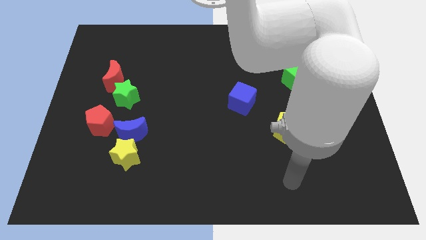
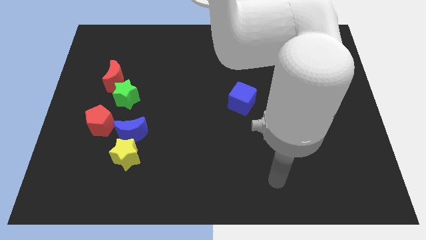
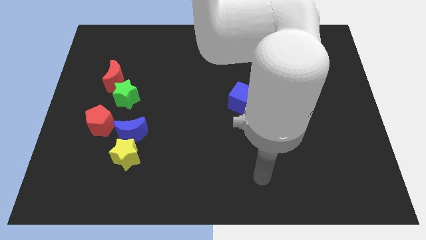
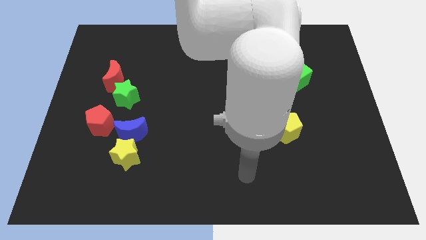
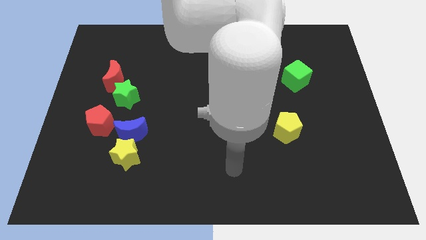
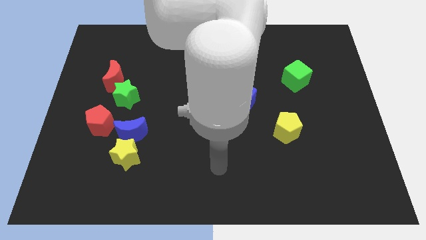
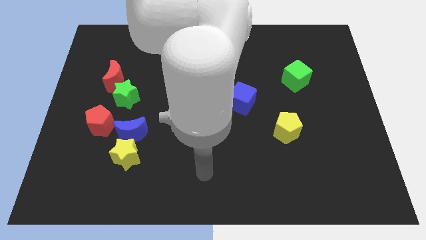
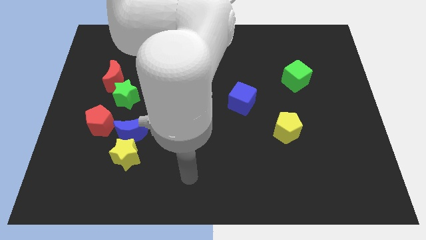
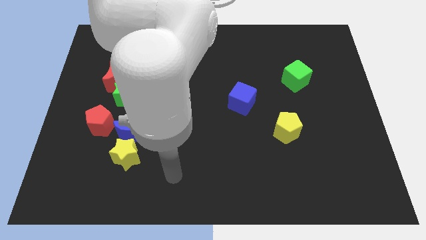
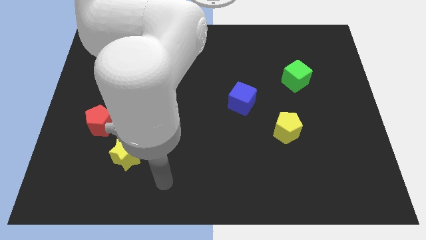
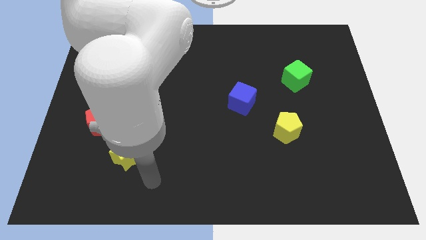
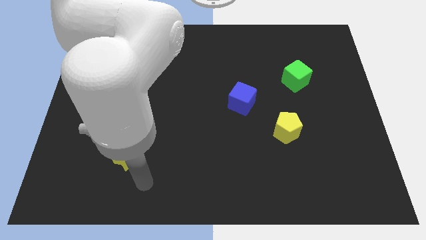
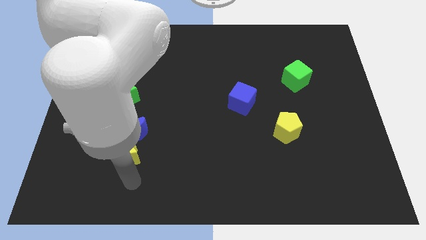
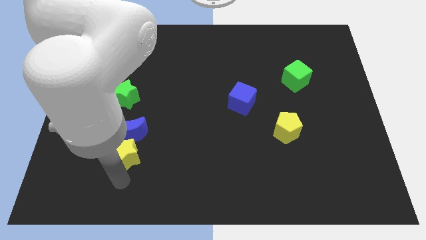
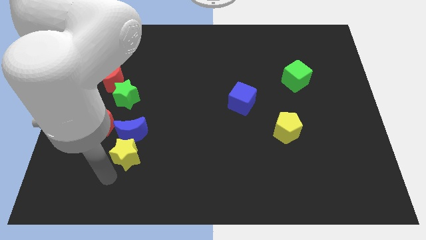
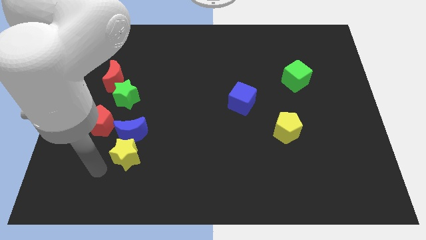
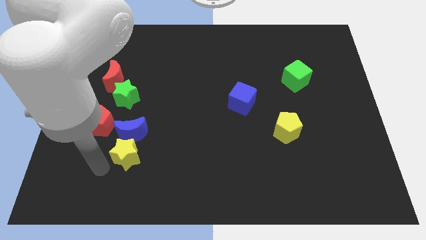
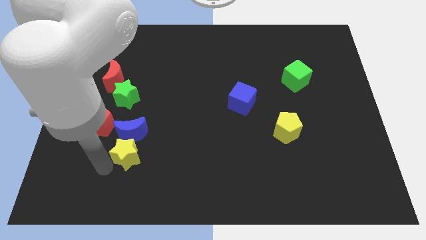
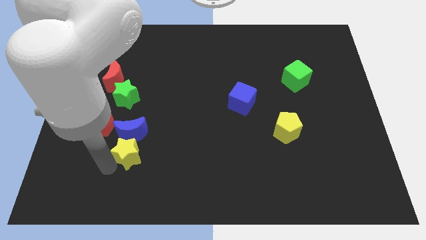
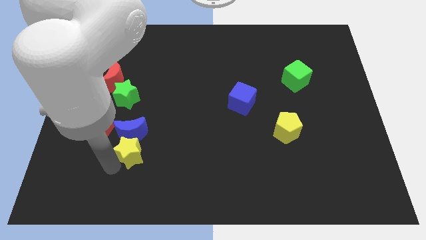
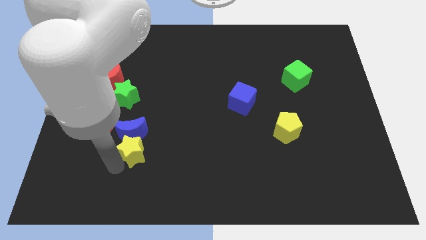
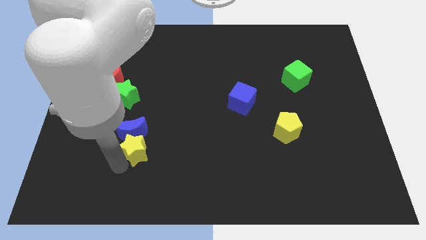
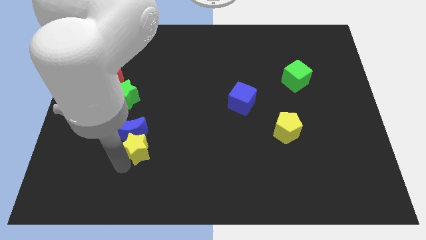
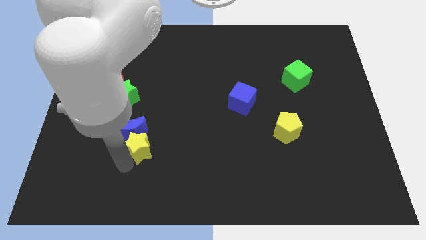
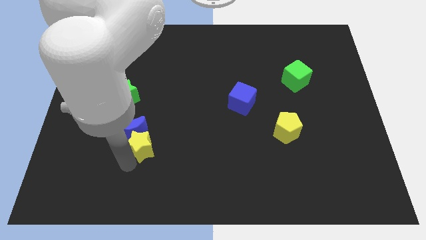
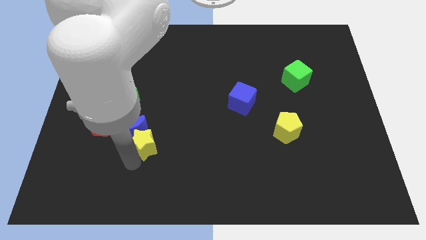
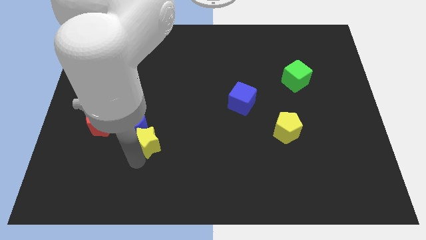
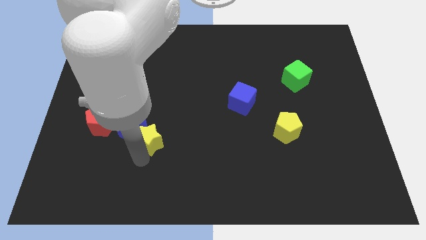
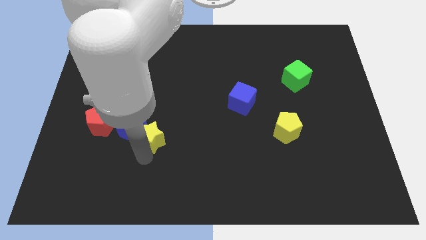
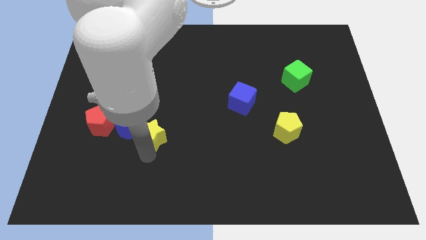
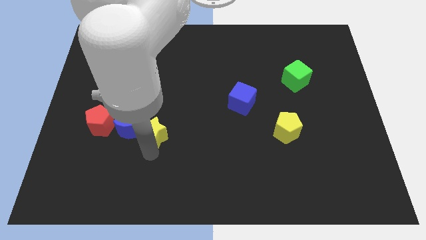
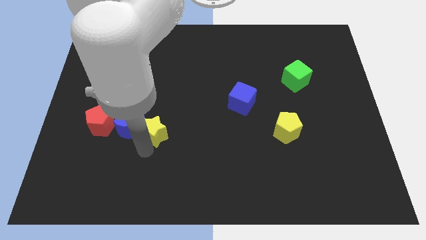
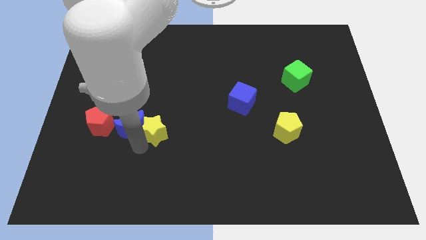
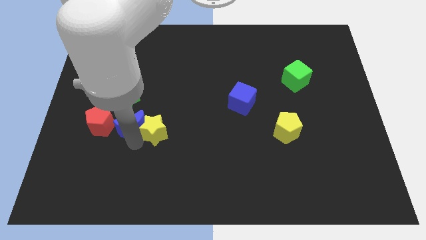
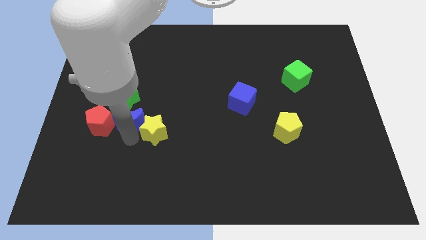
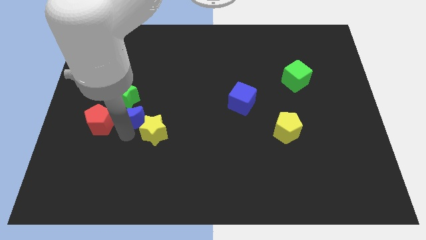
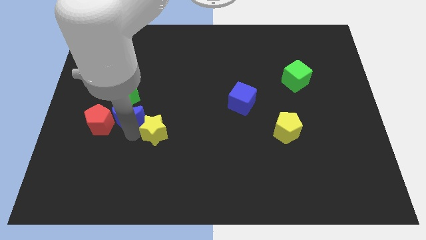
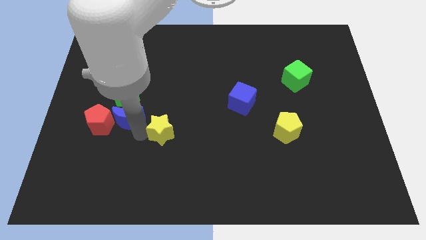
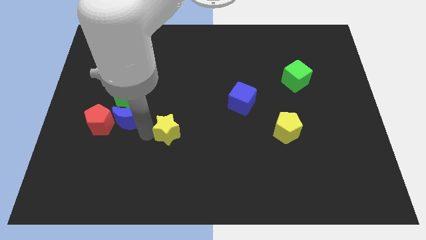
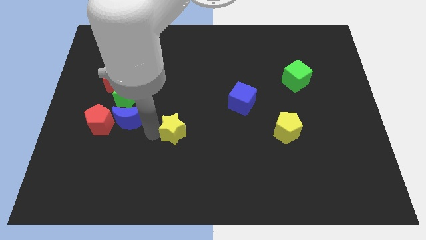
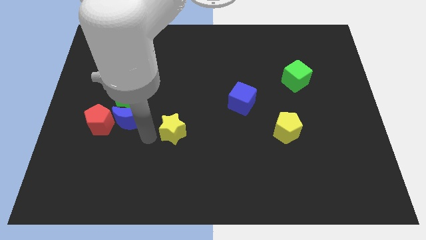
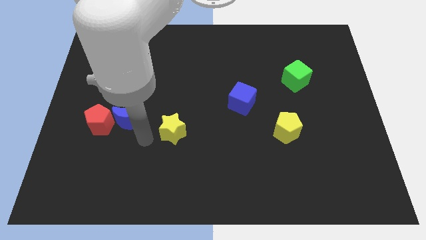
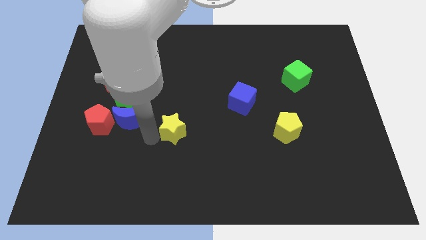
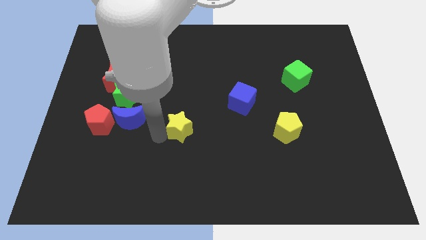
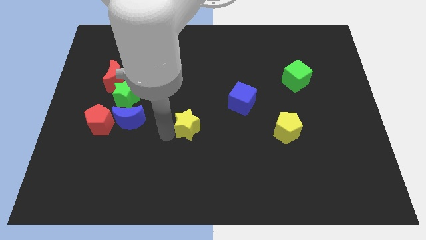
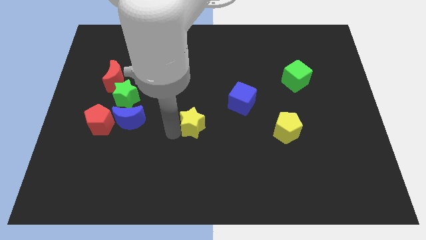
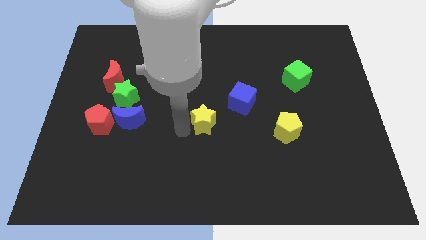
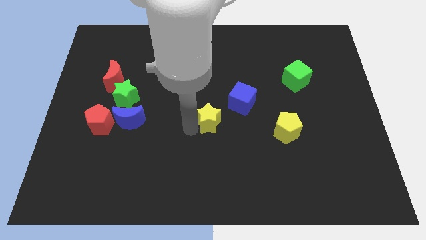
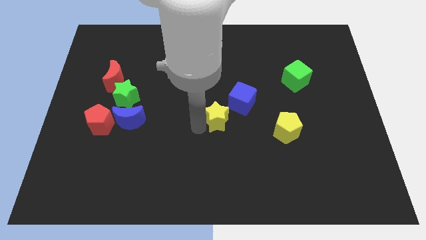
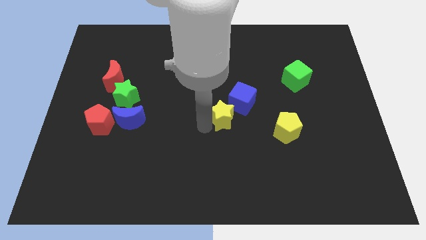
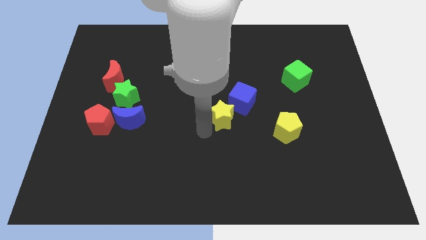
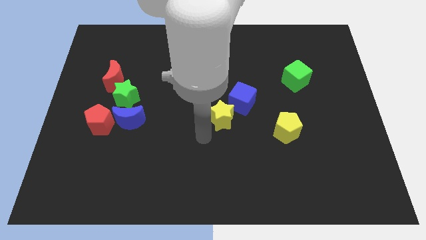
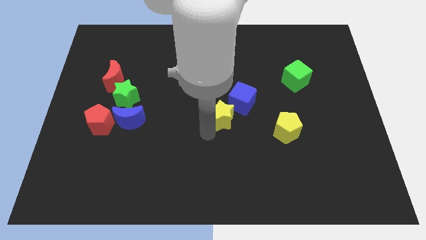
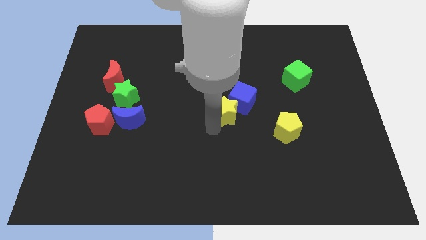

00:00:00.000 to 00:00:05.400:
put the yellow star towards the blue cube

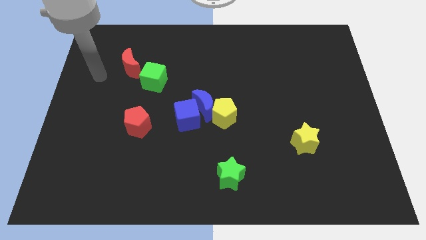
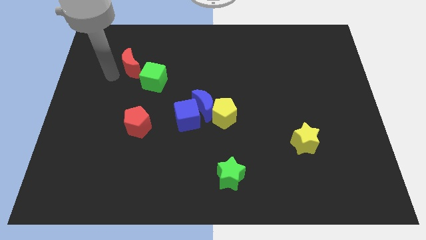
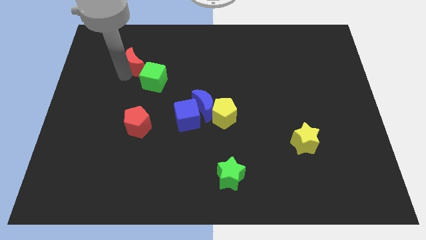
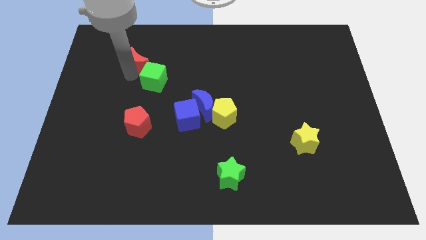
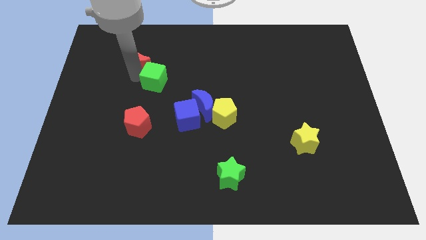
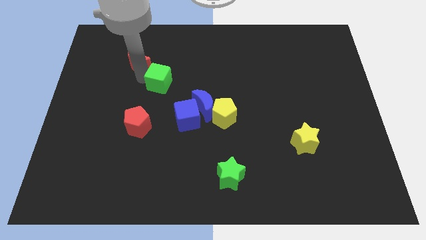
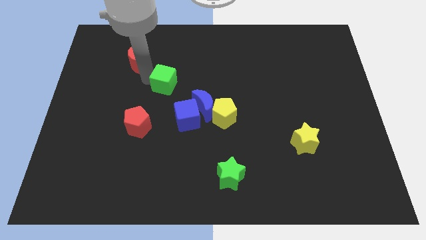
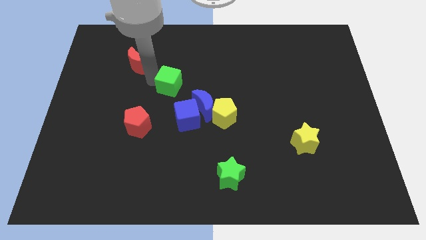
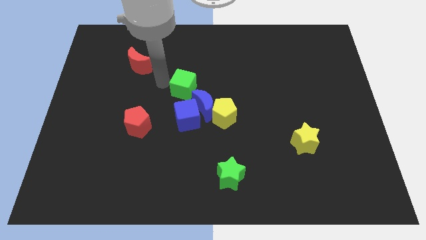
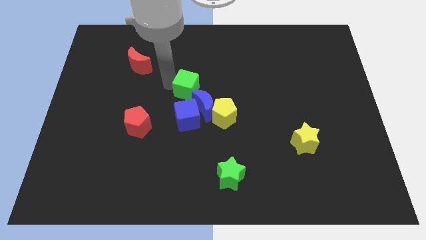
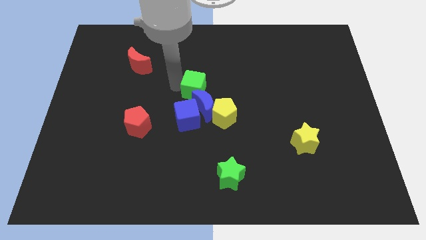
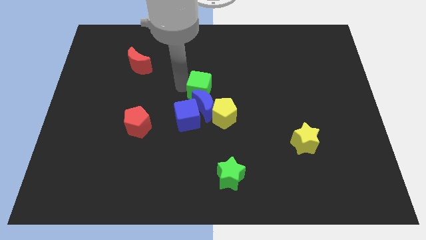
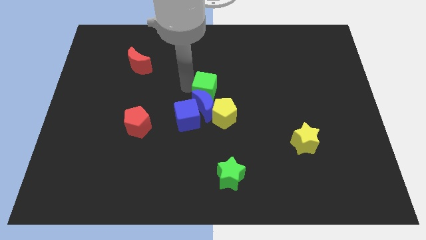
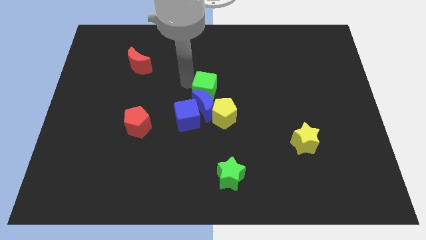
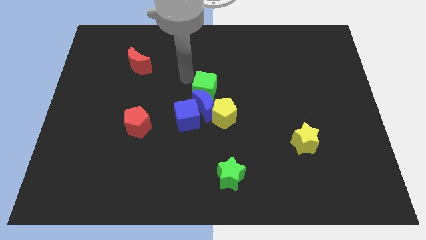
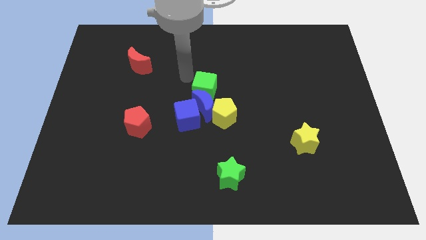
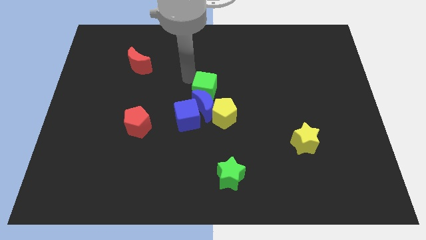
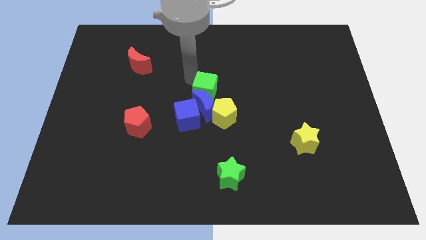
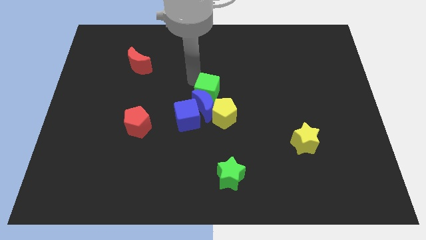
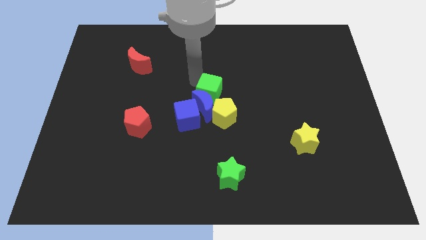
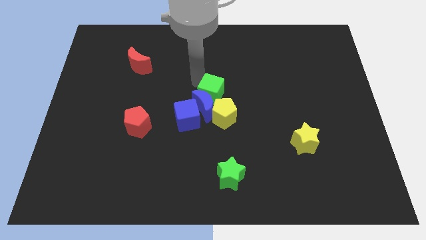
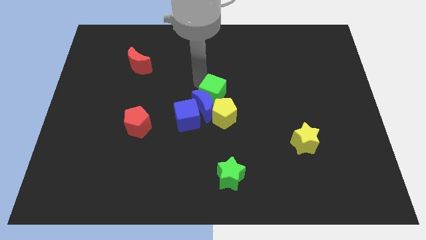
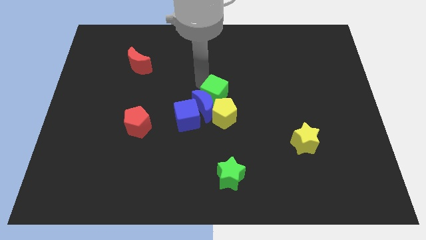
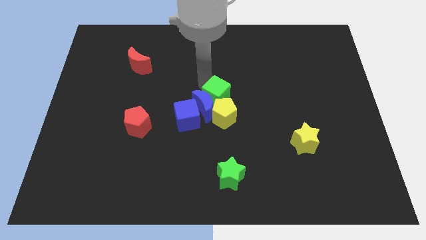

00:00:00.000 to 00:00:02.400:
slide the green cube towards the yellow pentagon
